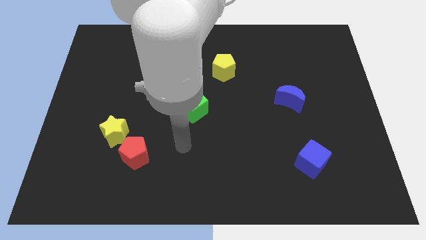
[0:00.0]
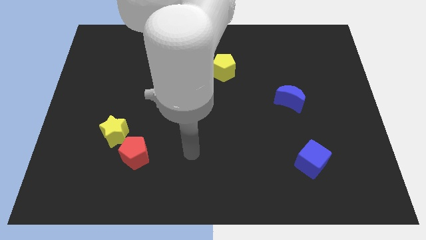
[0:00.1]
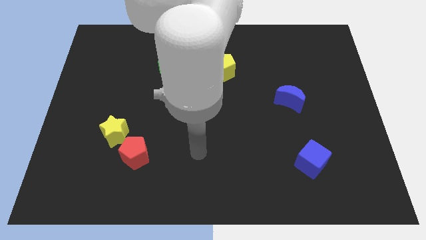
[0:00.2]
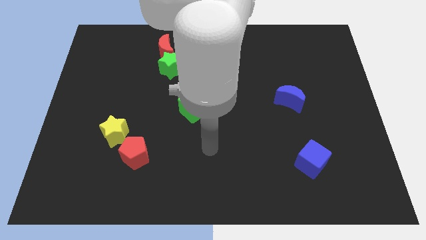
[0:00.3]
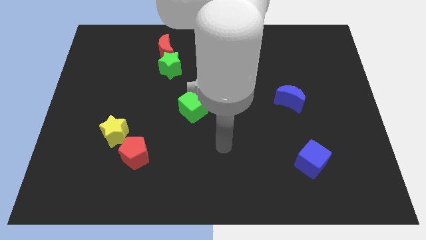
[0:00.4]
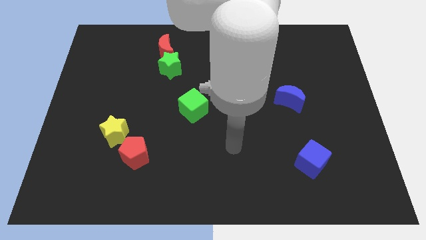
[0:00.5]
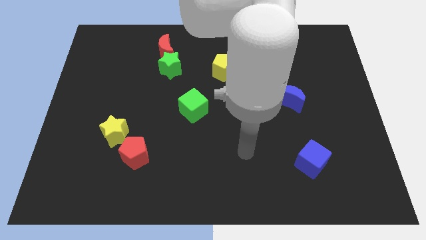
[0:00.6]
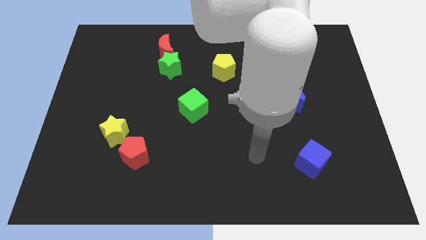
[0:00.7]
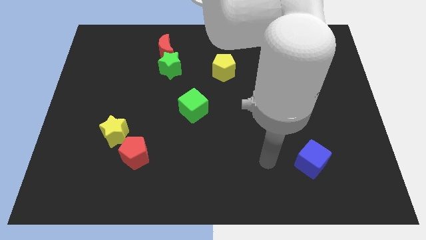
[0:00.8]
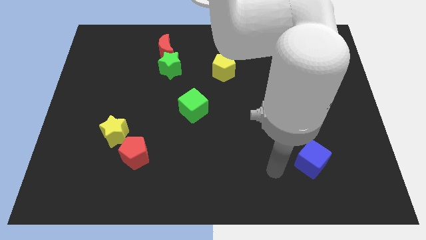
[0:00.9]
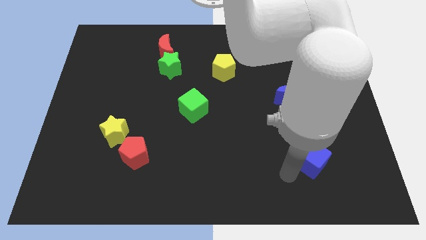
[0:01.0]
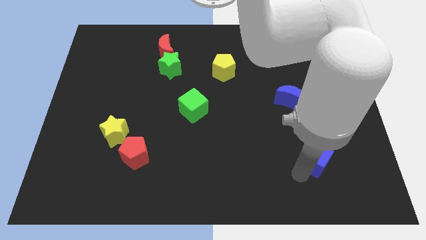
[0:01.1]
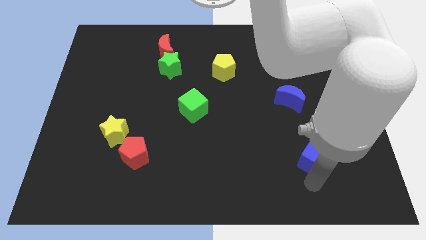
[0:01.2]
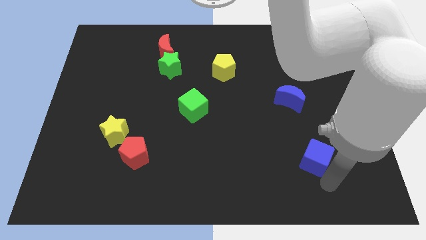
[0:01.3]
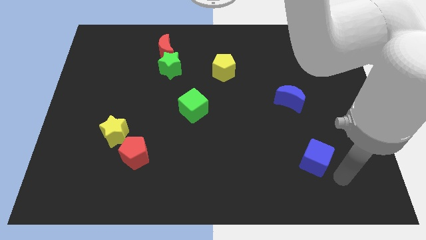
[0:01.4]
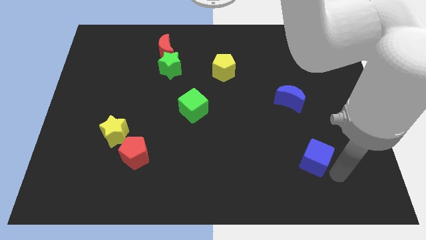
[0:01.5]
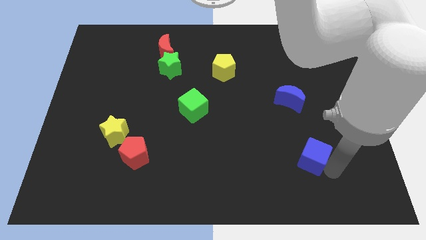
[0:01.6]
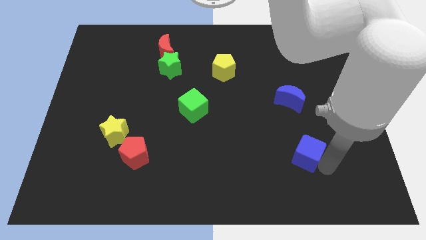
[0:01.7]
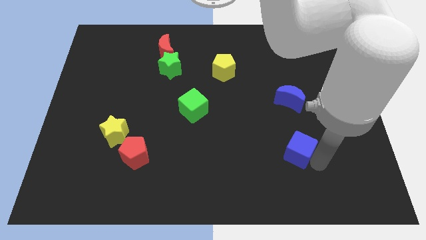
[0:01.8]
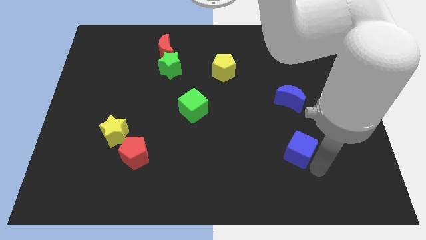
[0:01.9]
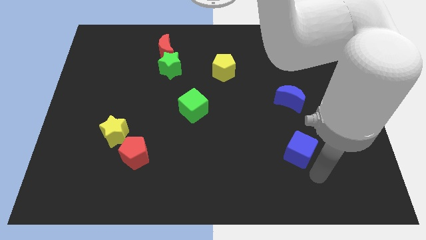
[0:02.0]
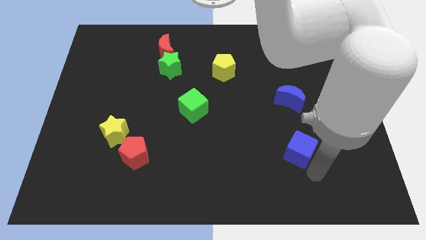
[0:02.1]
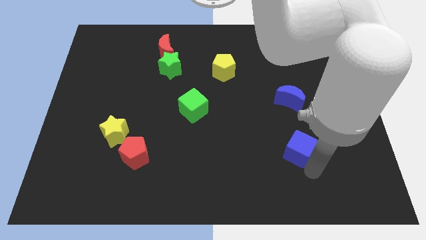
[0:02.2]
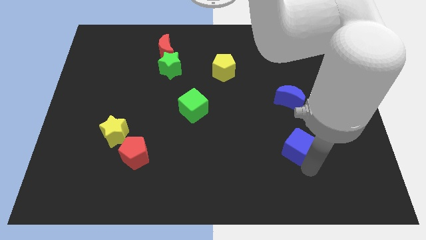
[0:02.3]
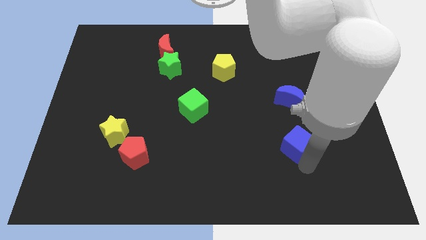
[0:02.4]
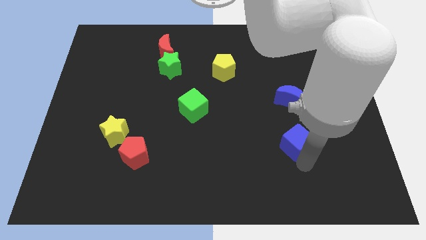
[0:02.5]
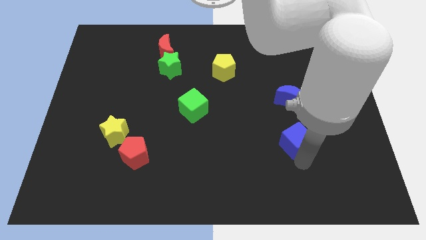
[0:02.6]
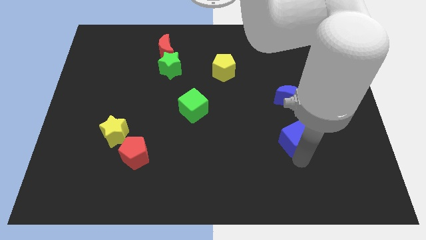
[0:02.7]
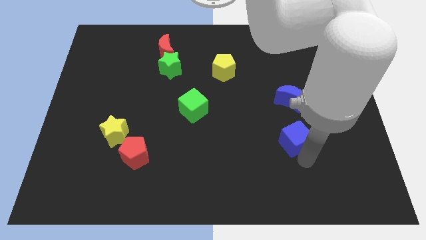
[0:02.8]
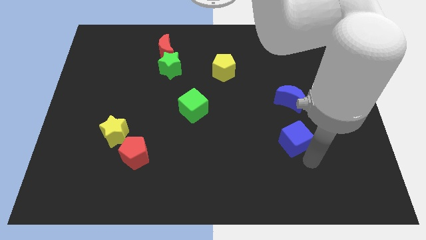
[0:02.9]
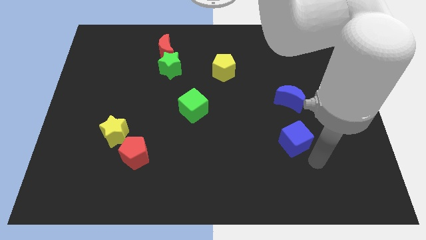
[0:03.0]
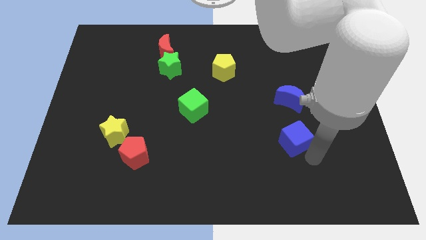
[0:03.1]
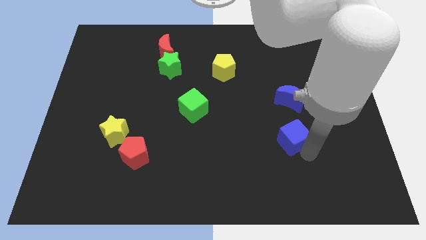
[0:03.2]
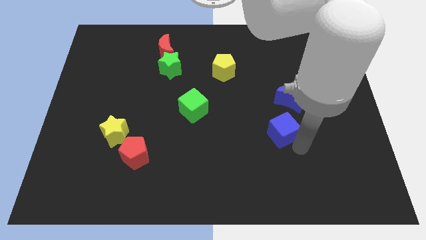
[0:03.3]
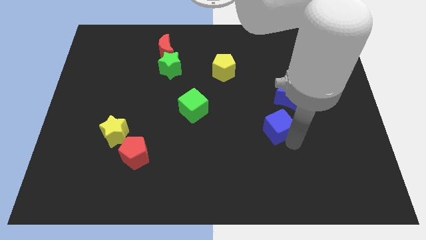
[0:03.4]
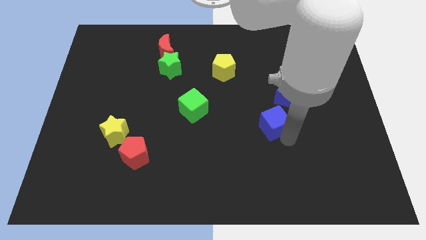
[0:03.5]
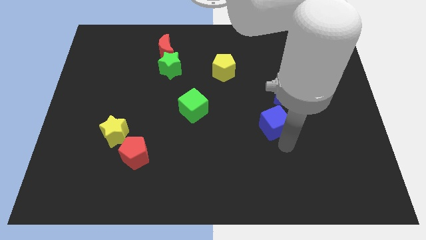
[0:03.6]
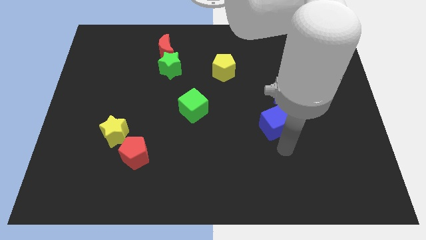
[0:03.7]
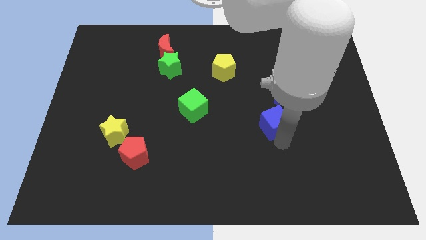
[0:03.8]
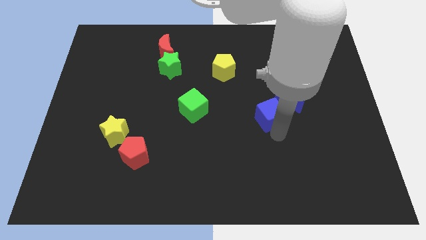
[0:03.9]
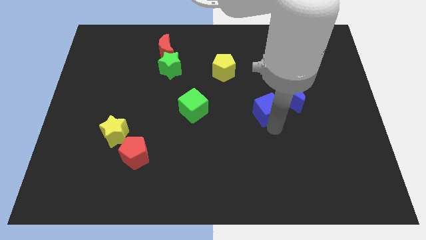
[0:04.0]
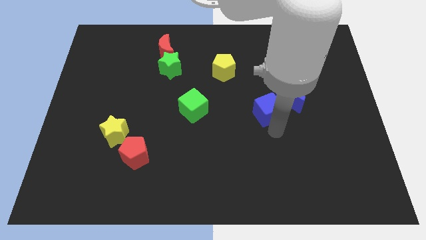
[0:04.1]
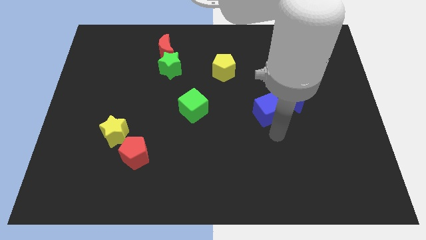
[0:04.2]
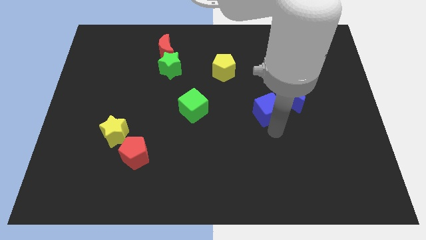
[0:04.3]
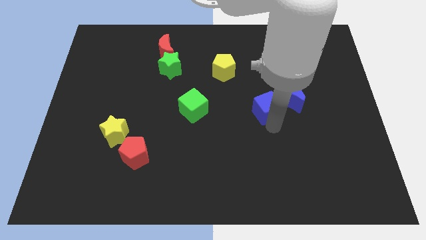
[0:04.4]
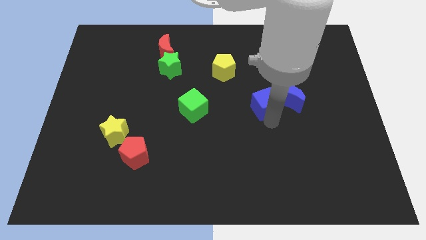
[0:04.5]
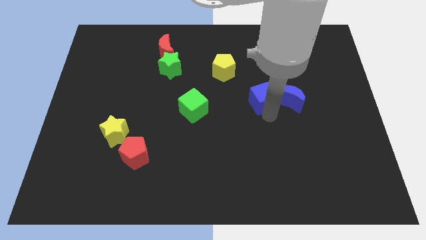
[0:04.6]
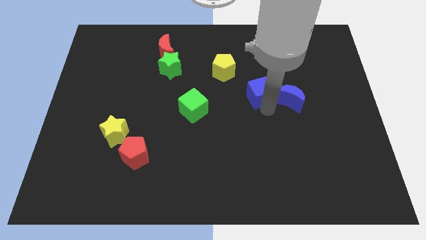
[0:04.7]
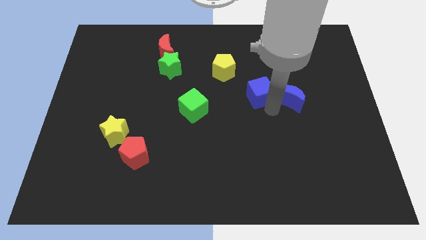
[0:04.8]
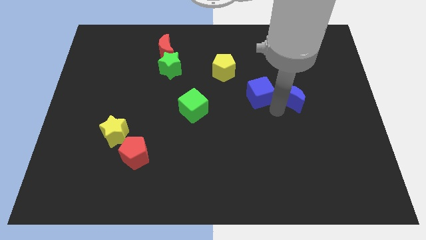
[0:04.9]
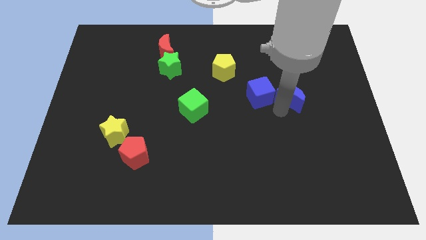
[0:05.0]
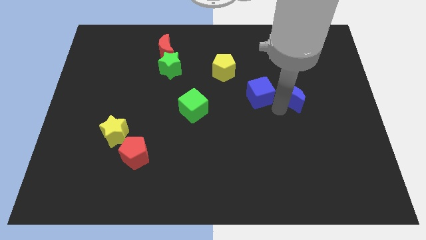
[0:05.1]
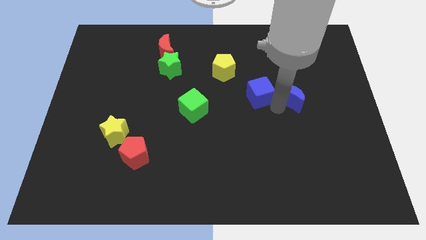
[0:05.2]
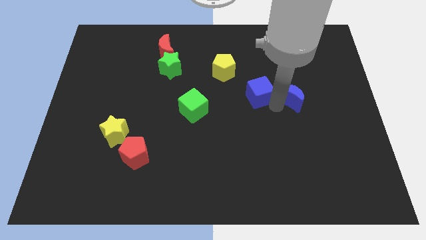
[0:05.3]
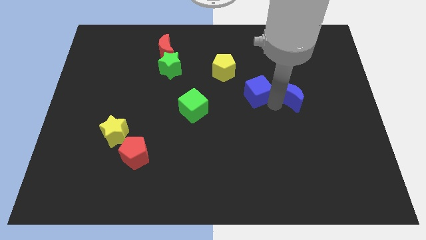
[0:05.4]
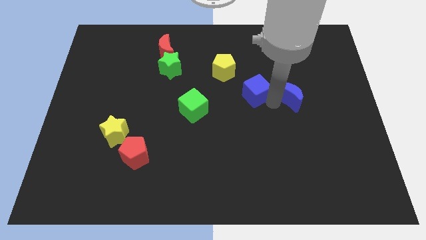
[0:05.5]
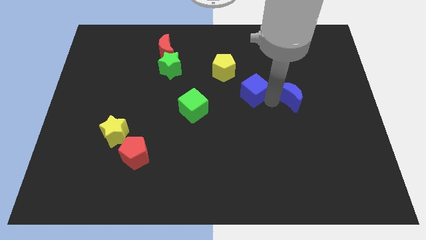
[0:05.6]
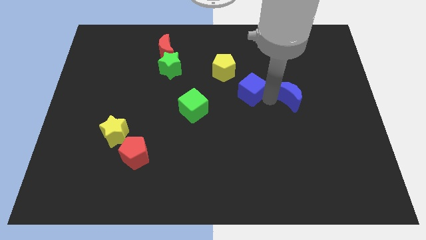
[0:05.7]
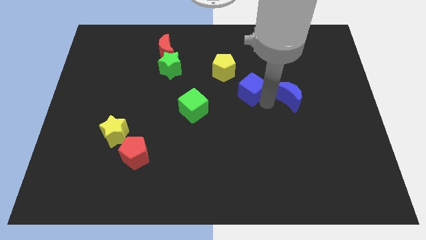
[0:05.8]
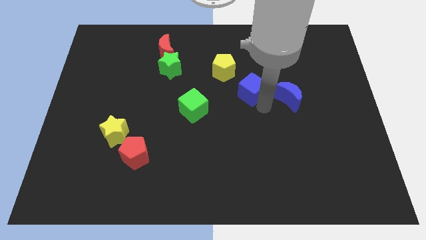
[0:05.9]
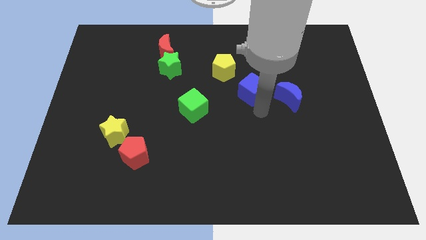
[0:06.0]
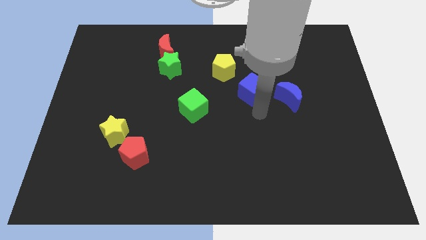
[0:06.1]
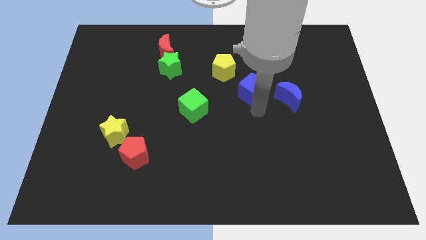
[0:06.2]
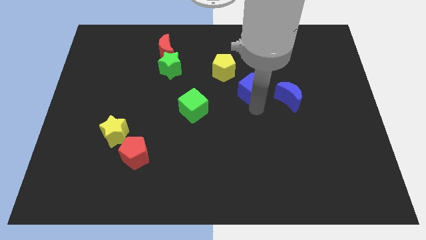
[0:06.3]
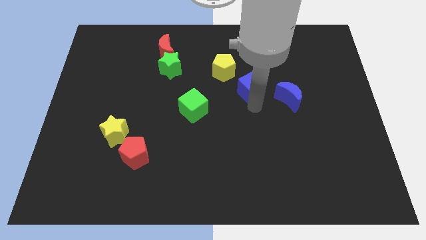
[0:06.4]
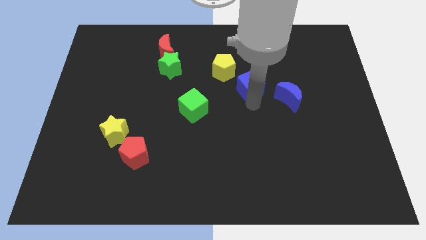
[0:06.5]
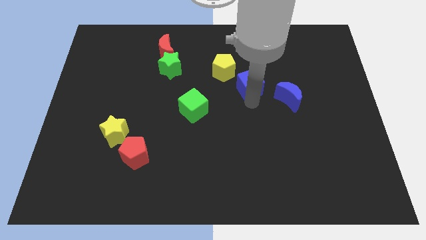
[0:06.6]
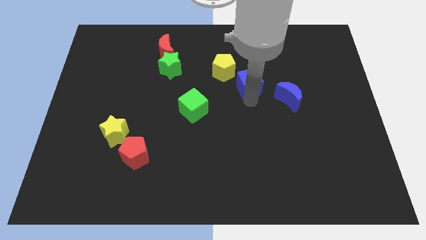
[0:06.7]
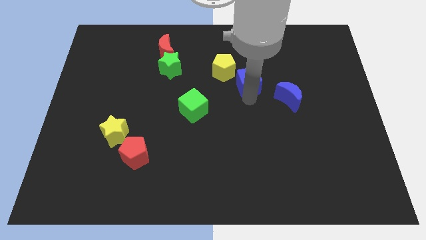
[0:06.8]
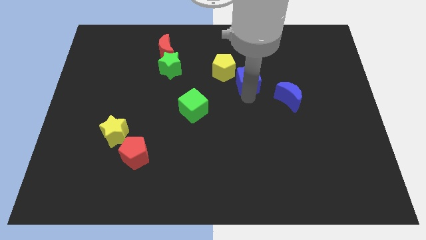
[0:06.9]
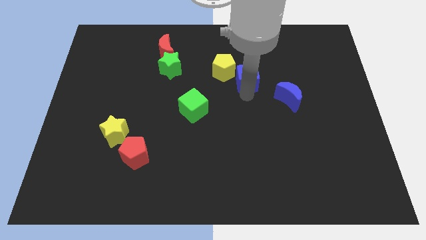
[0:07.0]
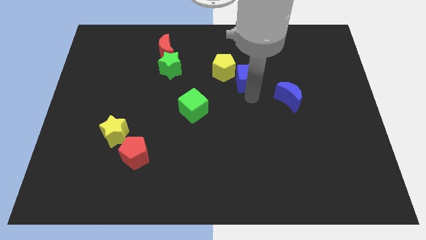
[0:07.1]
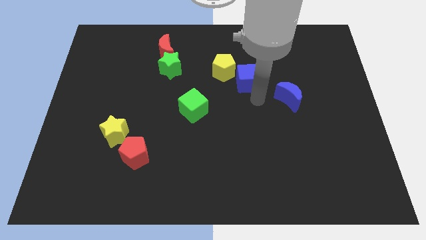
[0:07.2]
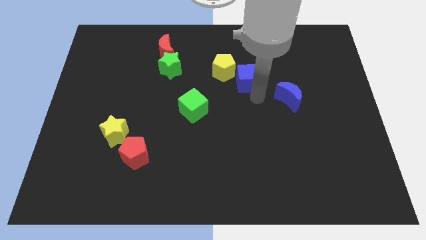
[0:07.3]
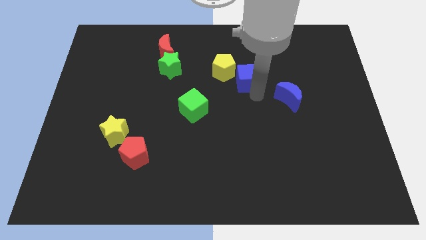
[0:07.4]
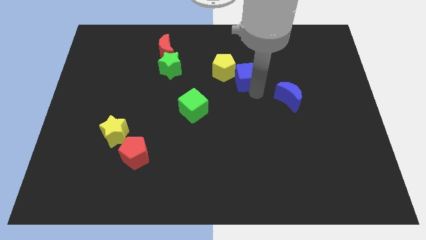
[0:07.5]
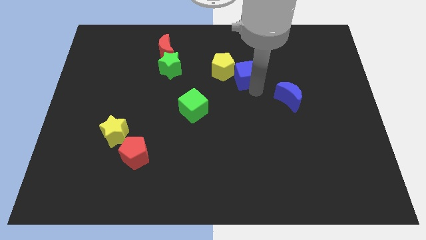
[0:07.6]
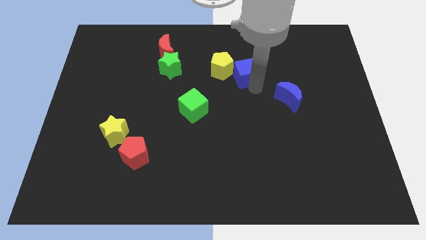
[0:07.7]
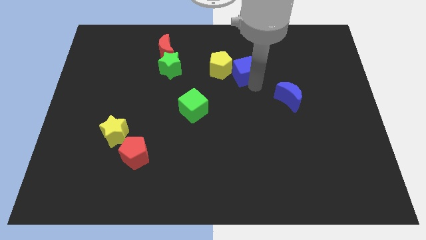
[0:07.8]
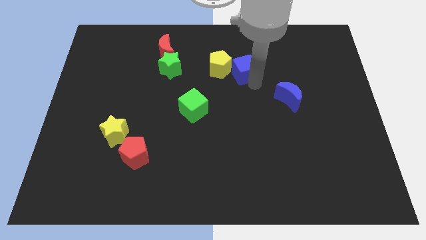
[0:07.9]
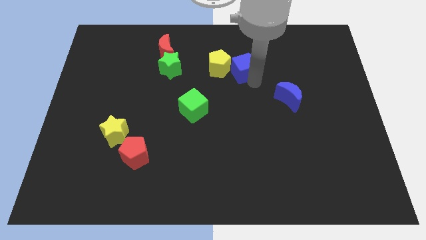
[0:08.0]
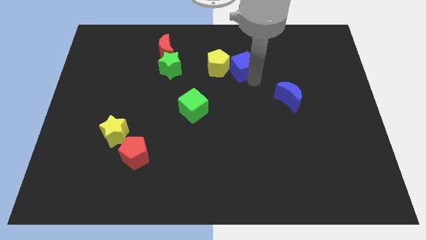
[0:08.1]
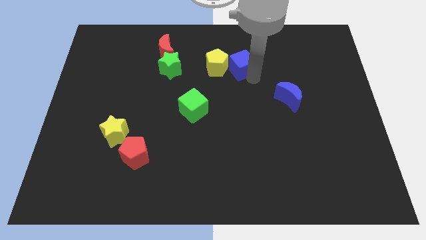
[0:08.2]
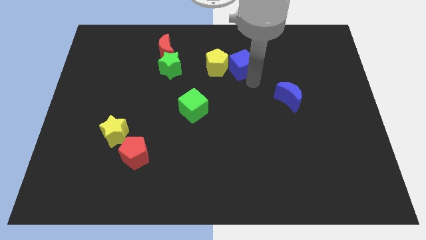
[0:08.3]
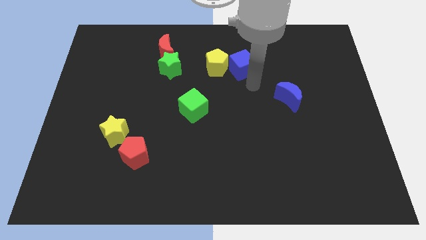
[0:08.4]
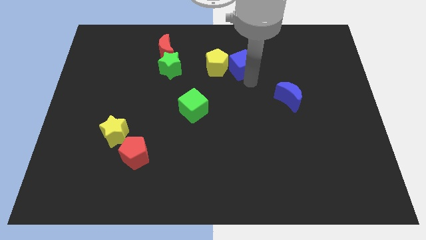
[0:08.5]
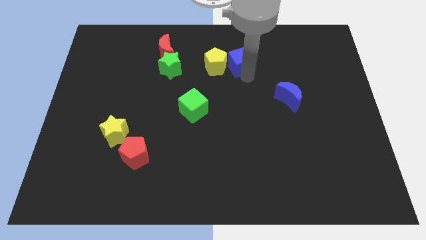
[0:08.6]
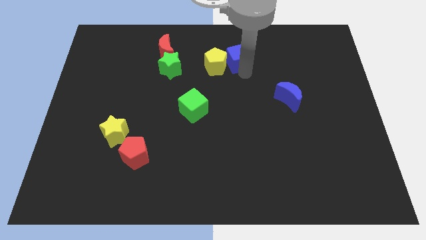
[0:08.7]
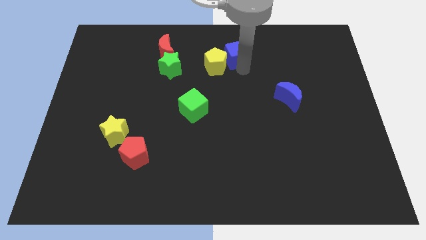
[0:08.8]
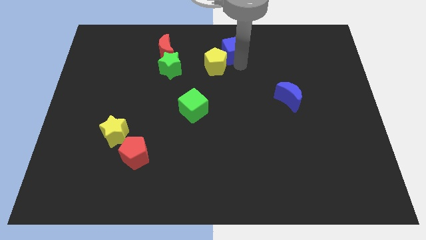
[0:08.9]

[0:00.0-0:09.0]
put the blue cube to the top
